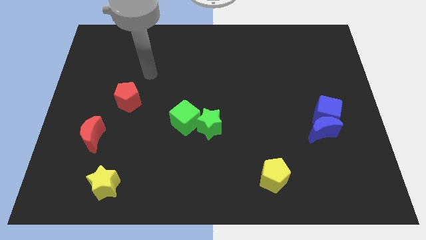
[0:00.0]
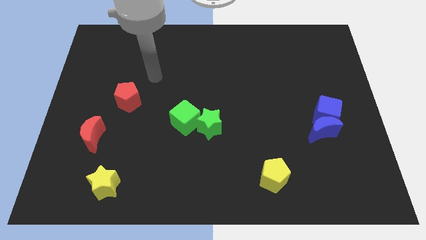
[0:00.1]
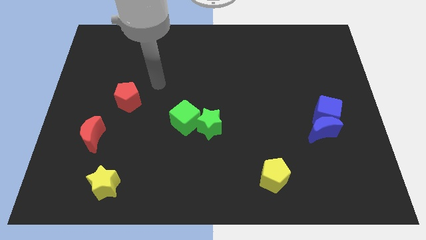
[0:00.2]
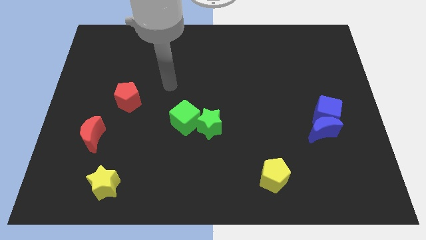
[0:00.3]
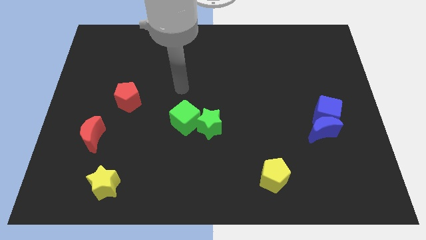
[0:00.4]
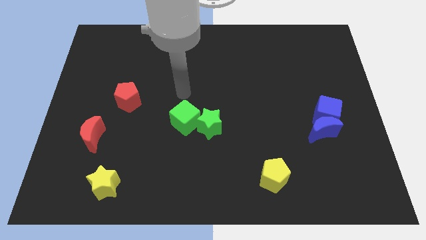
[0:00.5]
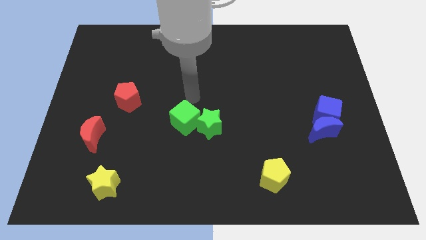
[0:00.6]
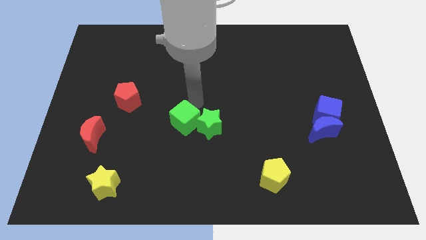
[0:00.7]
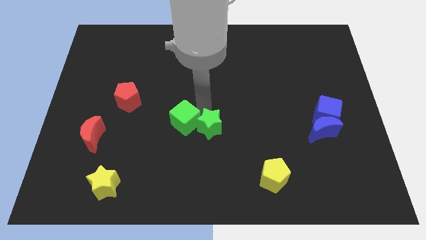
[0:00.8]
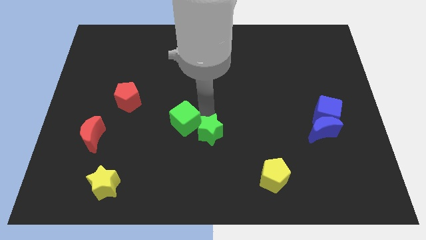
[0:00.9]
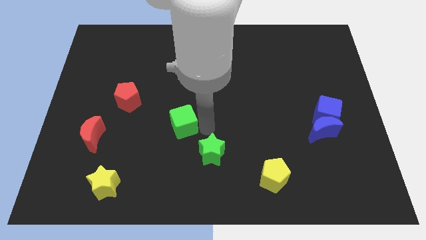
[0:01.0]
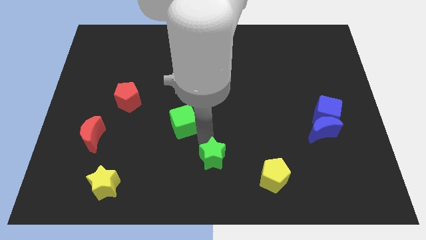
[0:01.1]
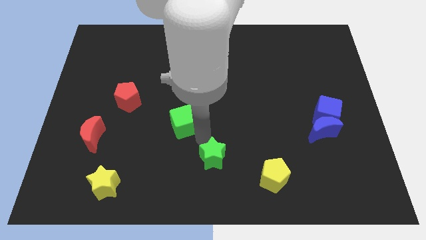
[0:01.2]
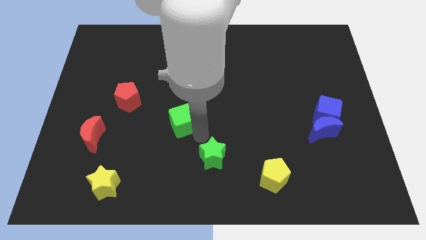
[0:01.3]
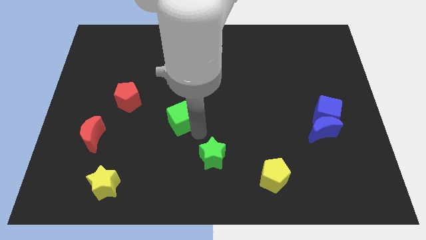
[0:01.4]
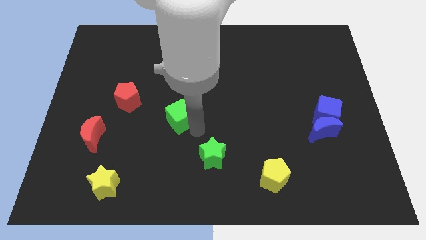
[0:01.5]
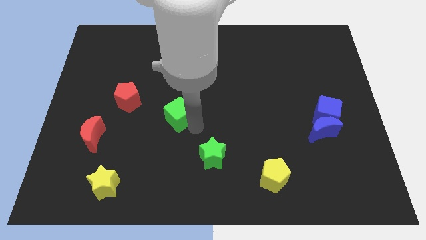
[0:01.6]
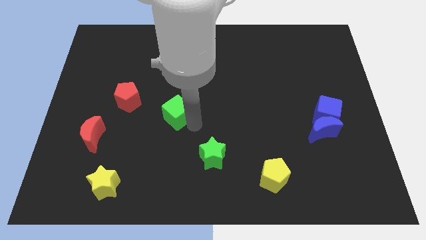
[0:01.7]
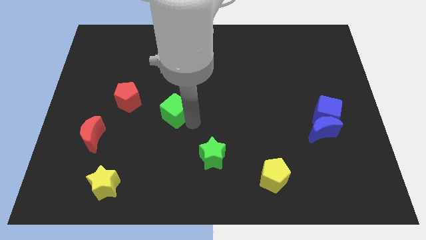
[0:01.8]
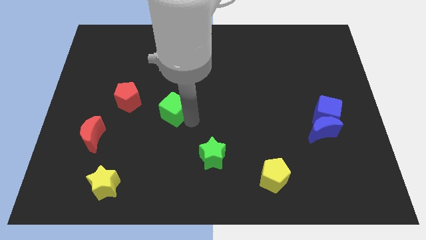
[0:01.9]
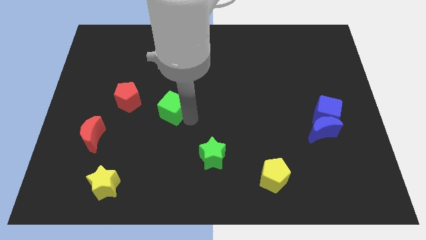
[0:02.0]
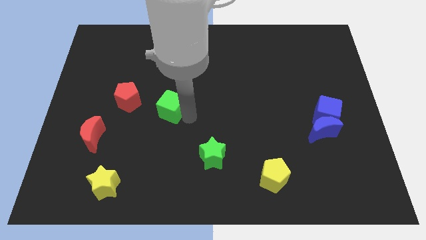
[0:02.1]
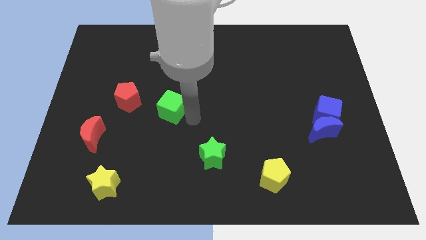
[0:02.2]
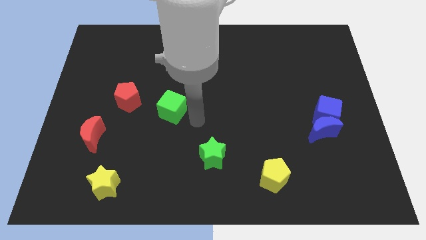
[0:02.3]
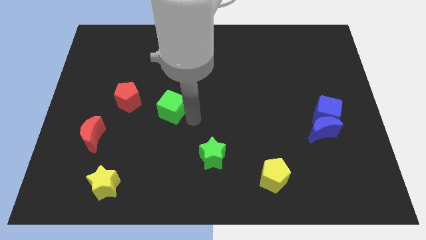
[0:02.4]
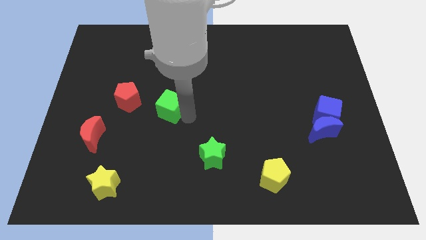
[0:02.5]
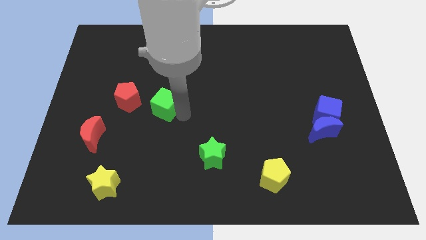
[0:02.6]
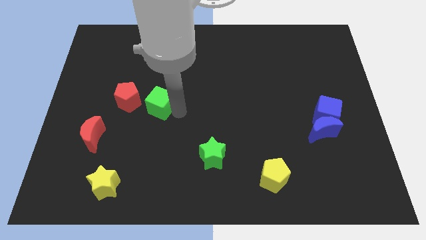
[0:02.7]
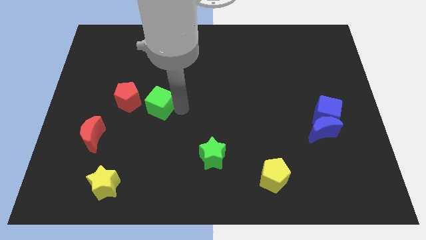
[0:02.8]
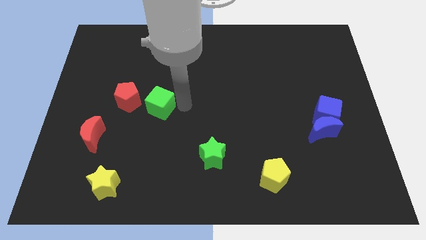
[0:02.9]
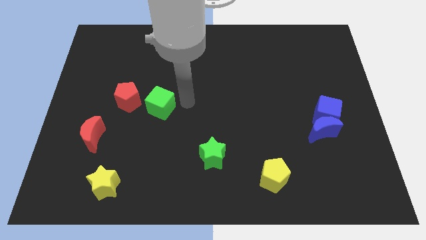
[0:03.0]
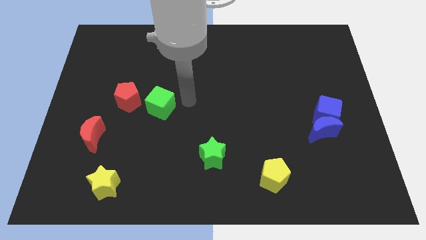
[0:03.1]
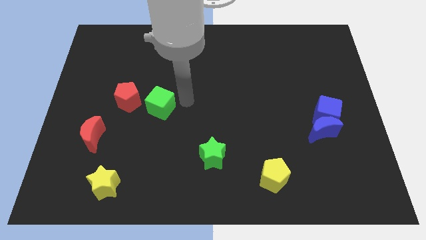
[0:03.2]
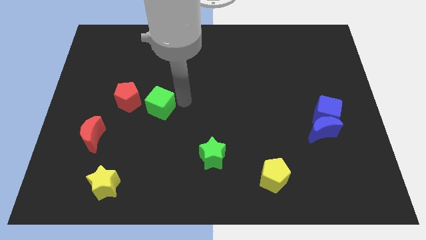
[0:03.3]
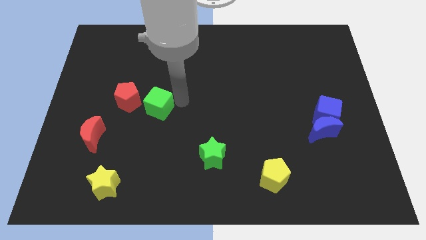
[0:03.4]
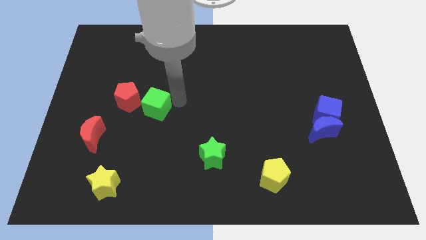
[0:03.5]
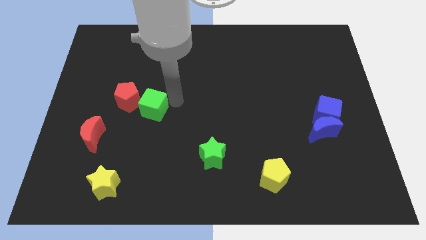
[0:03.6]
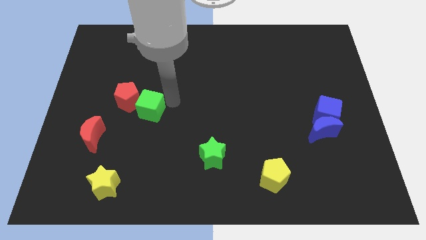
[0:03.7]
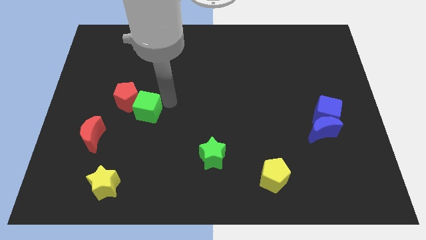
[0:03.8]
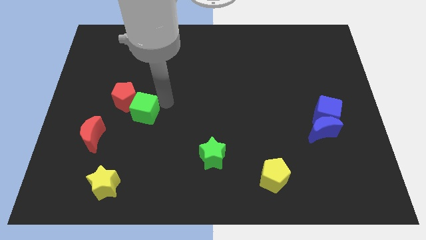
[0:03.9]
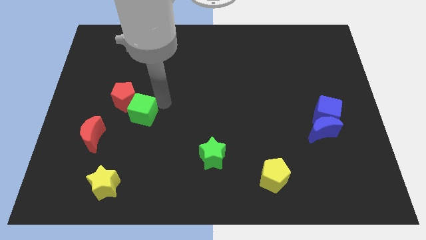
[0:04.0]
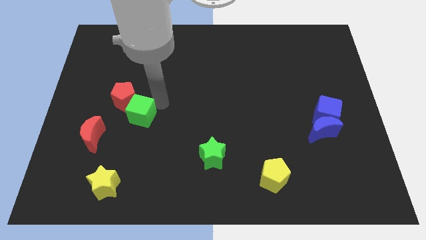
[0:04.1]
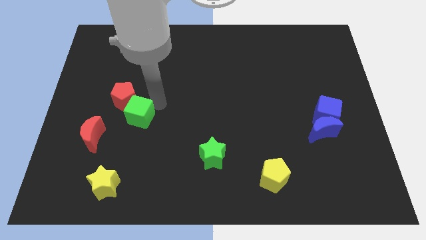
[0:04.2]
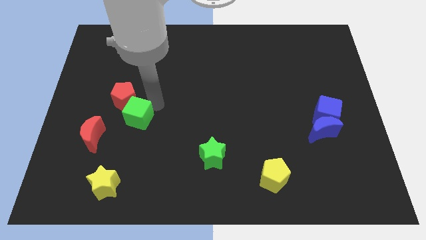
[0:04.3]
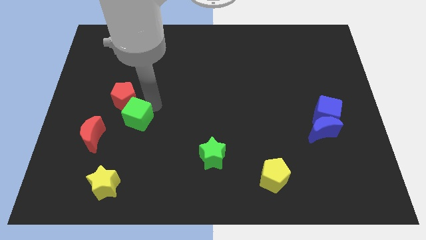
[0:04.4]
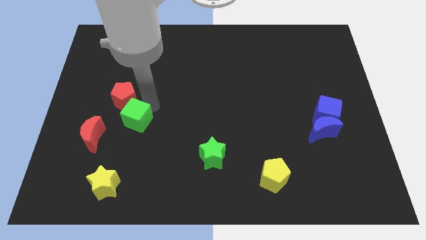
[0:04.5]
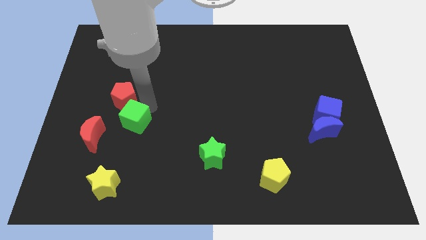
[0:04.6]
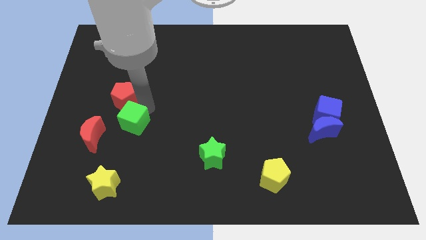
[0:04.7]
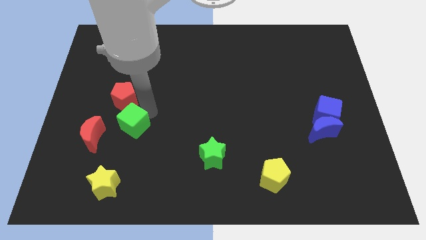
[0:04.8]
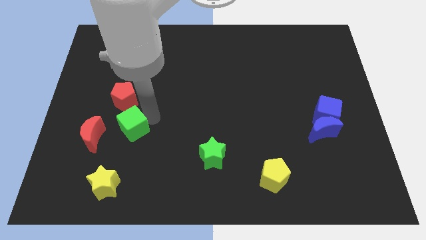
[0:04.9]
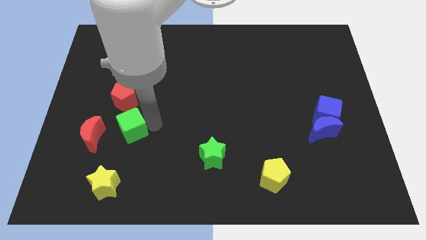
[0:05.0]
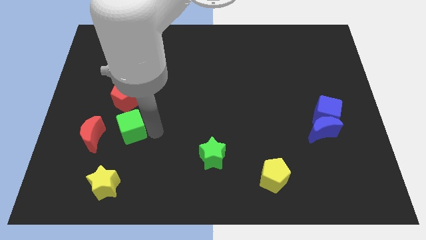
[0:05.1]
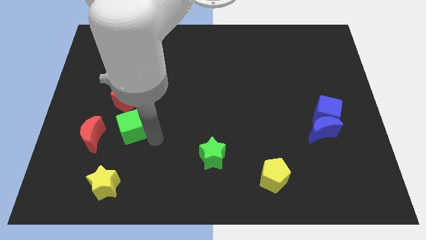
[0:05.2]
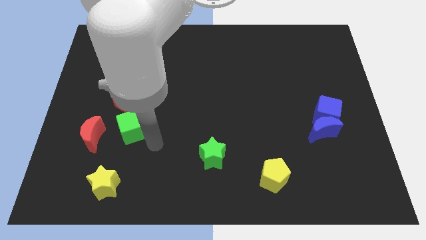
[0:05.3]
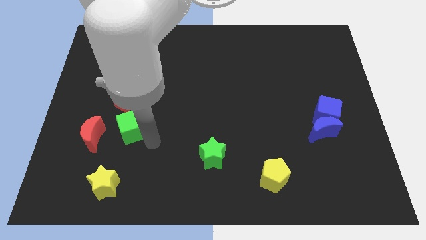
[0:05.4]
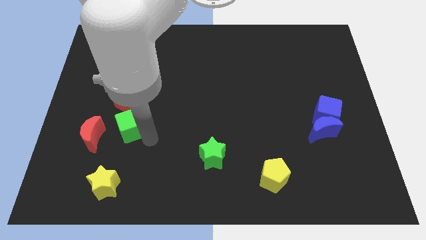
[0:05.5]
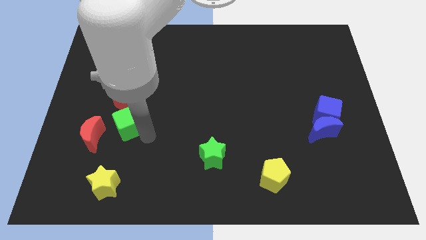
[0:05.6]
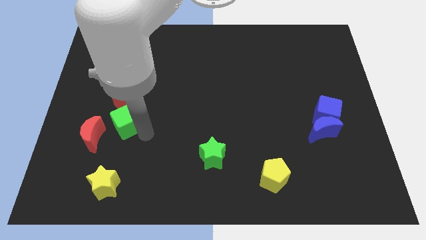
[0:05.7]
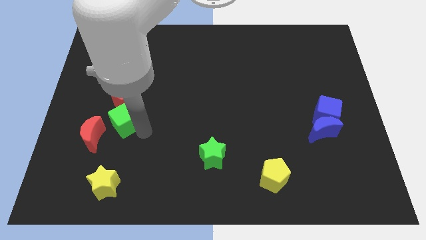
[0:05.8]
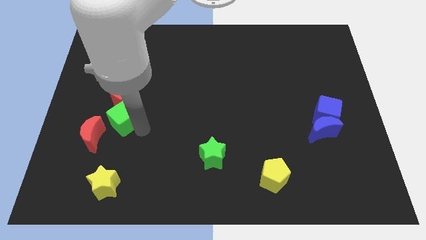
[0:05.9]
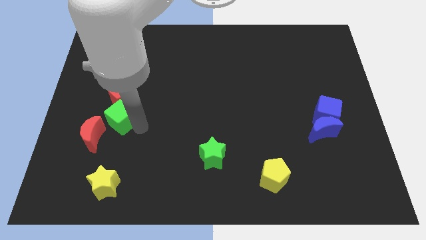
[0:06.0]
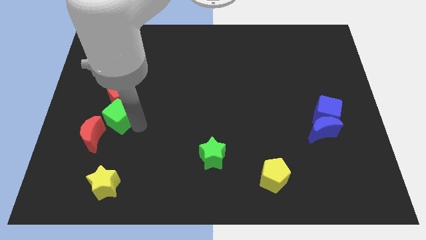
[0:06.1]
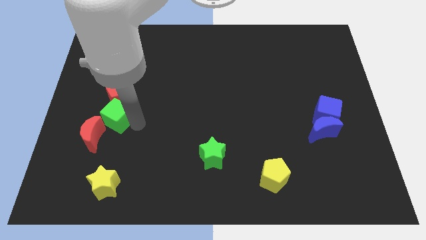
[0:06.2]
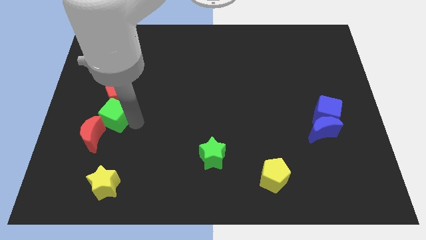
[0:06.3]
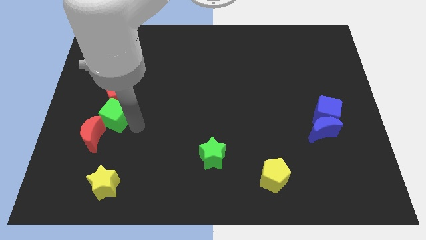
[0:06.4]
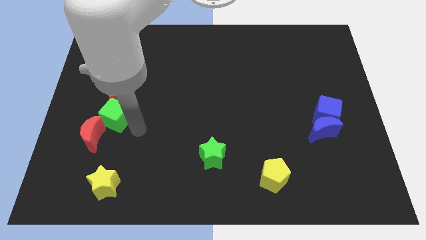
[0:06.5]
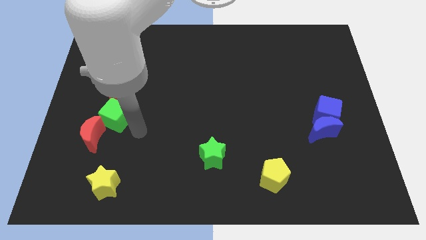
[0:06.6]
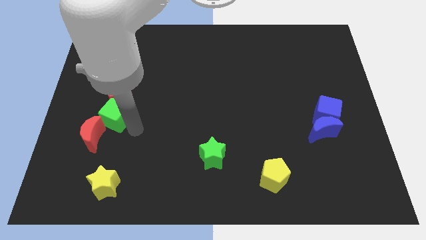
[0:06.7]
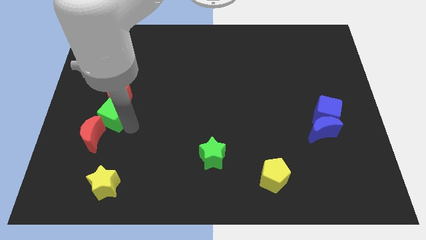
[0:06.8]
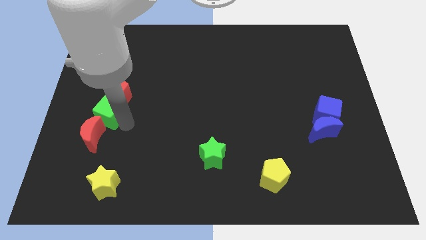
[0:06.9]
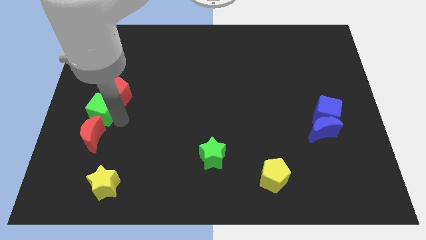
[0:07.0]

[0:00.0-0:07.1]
put the green cube to the left side of the board

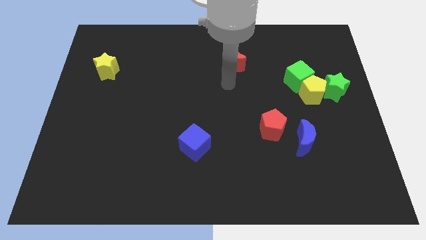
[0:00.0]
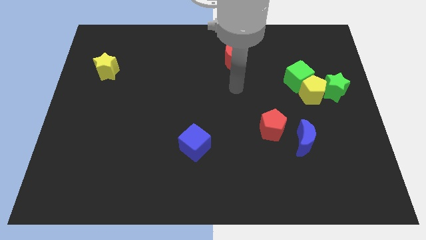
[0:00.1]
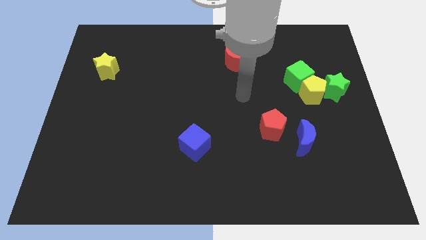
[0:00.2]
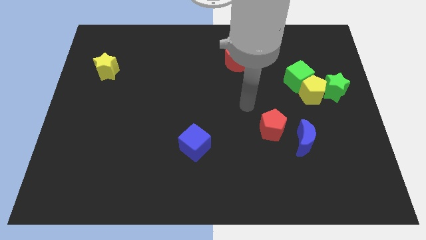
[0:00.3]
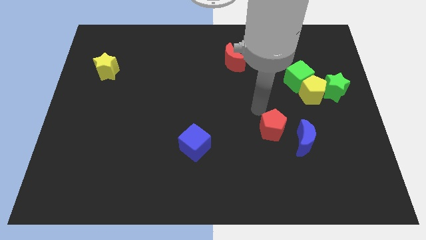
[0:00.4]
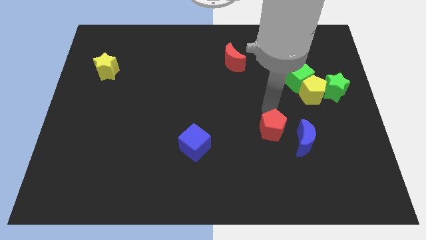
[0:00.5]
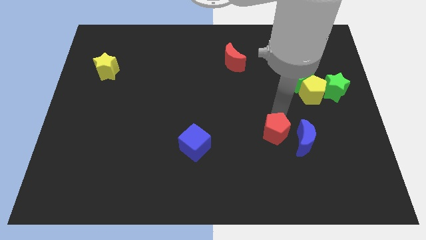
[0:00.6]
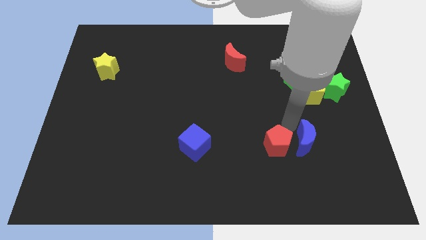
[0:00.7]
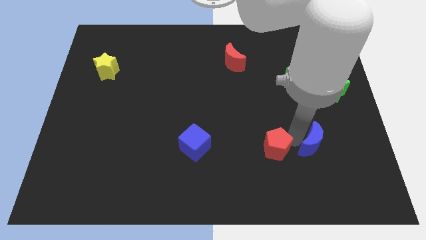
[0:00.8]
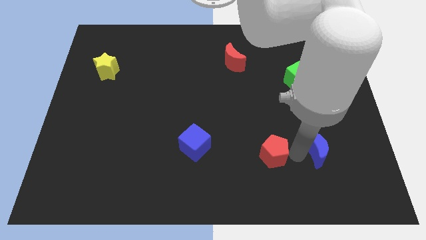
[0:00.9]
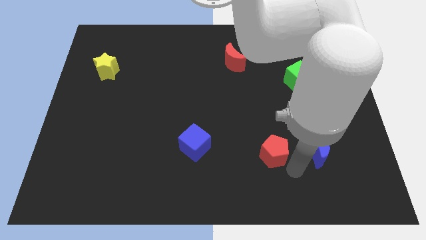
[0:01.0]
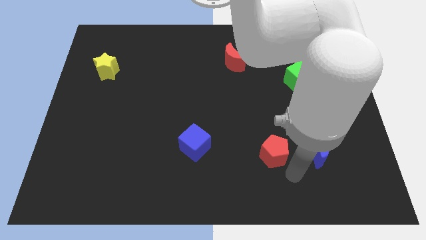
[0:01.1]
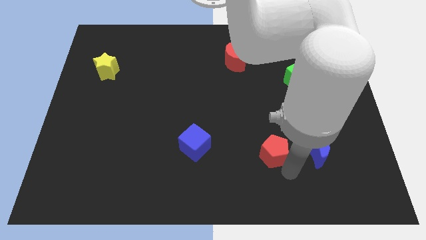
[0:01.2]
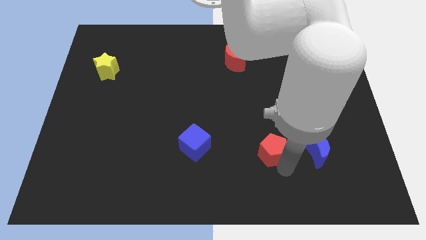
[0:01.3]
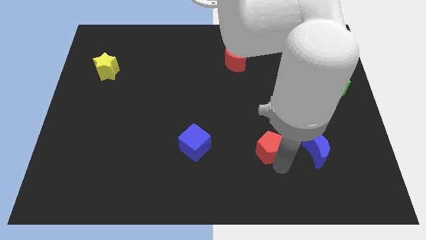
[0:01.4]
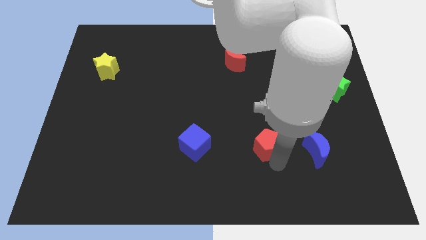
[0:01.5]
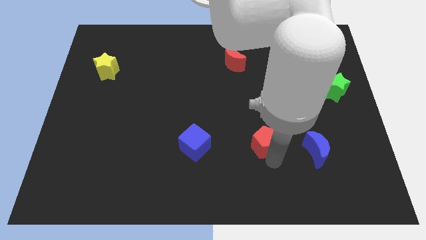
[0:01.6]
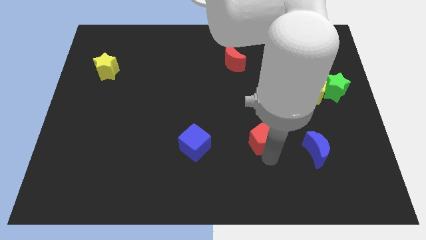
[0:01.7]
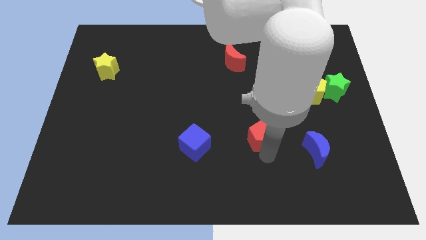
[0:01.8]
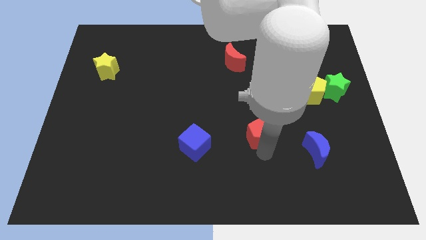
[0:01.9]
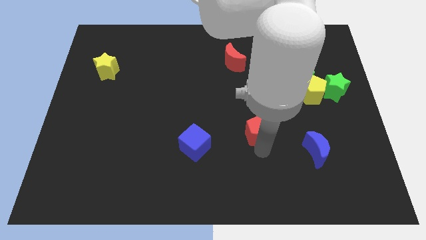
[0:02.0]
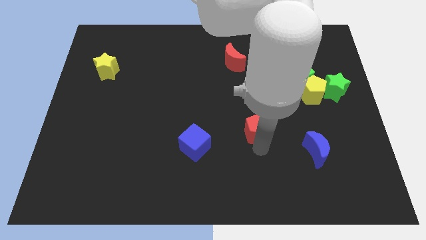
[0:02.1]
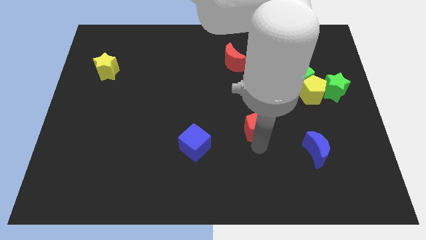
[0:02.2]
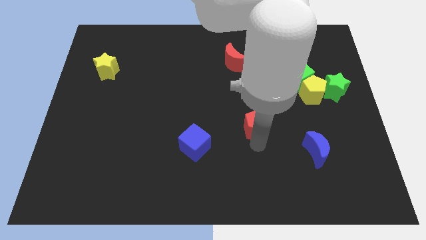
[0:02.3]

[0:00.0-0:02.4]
move the red pentagon to the center of the board
